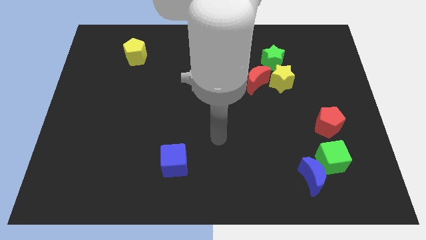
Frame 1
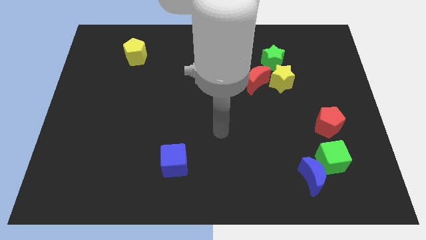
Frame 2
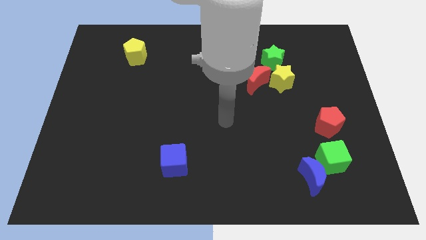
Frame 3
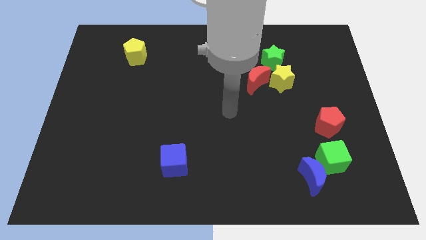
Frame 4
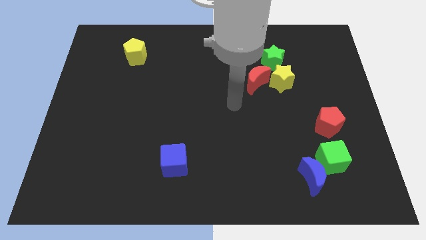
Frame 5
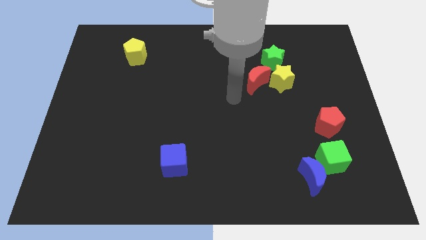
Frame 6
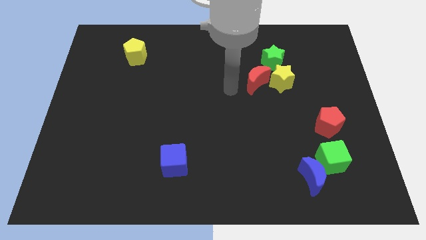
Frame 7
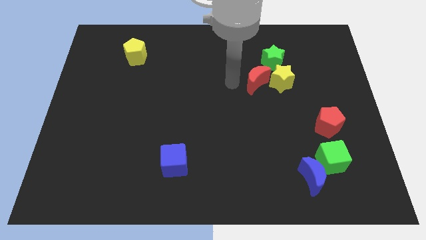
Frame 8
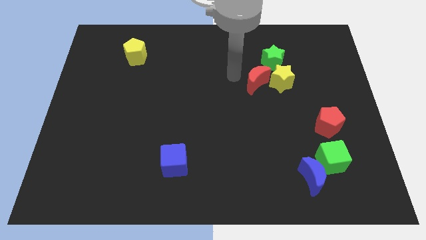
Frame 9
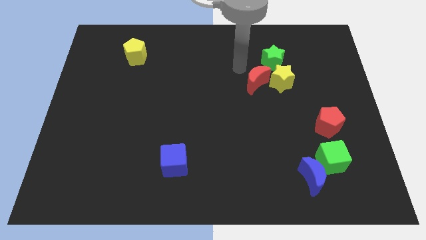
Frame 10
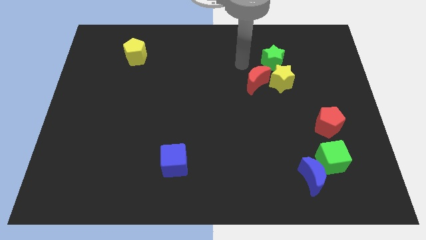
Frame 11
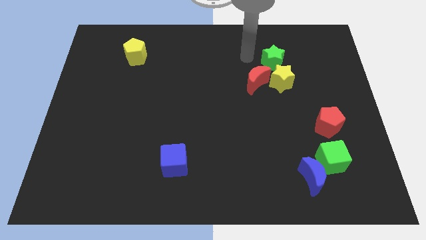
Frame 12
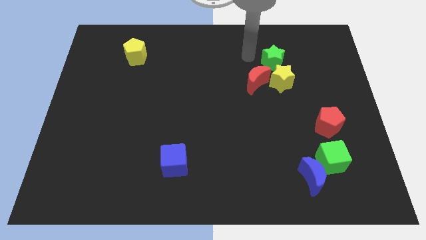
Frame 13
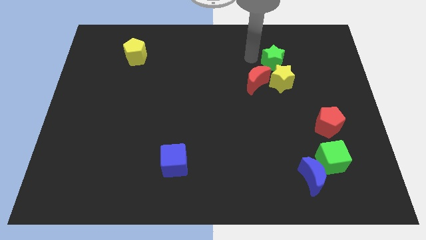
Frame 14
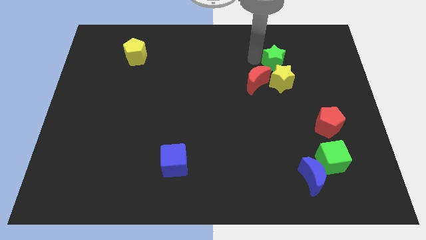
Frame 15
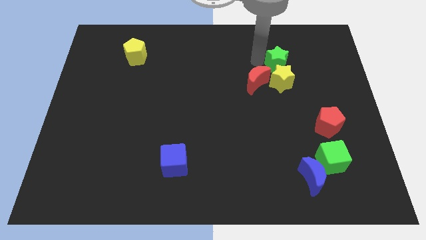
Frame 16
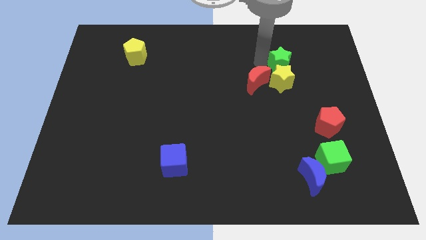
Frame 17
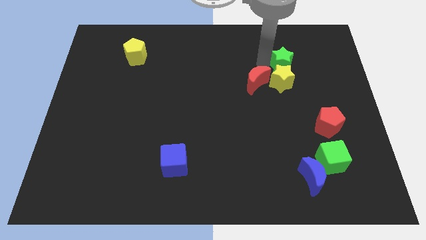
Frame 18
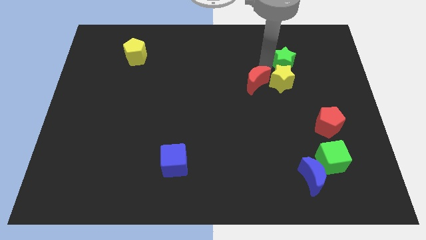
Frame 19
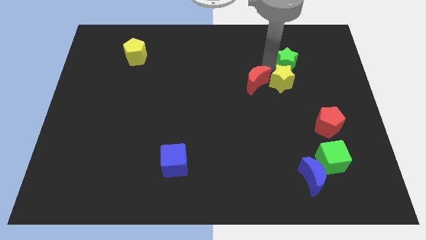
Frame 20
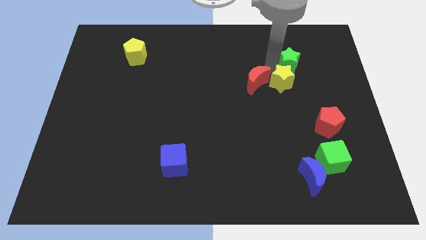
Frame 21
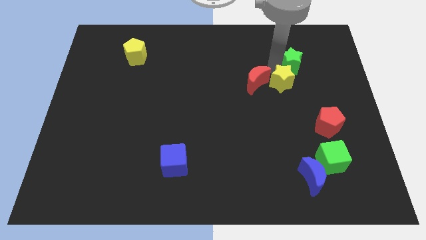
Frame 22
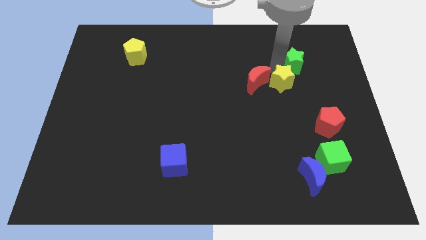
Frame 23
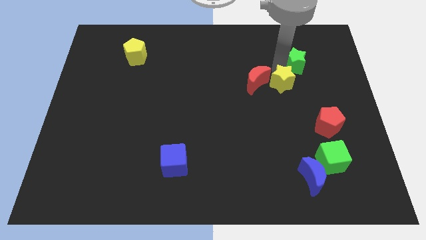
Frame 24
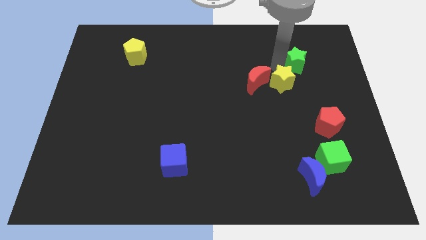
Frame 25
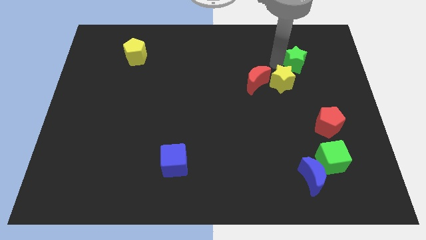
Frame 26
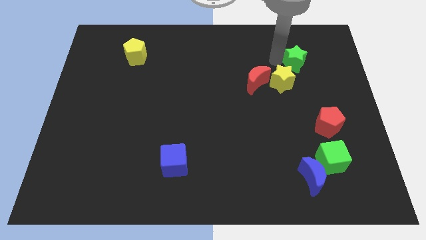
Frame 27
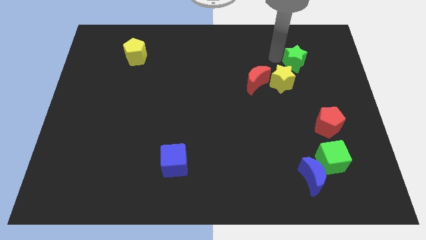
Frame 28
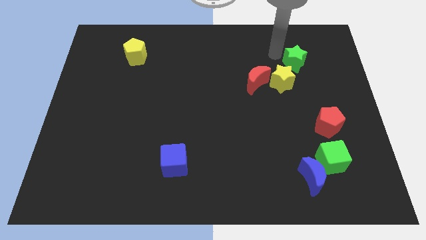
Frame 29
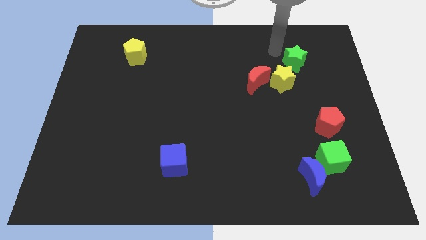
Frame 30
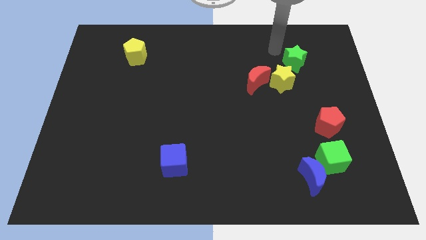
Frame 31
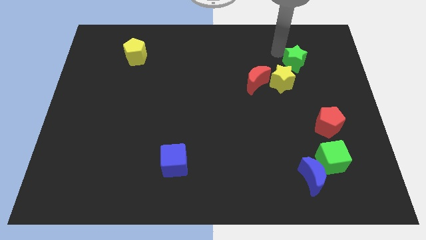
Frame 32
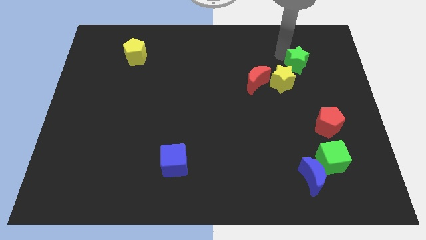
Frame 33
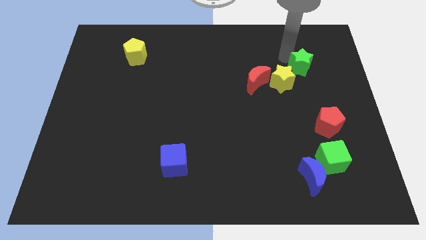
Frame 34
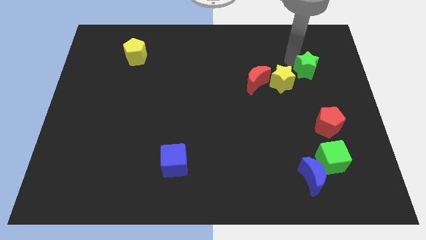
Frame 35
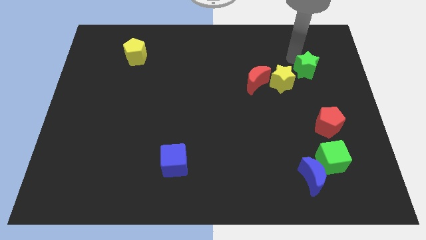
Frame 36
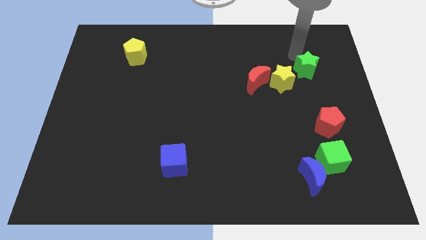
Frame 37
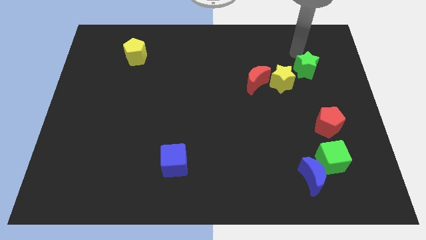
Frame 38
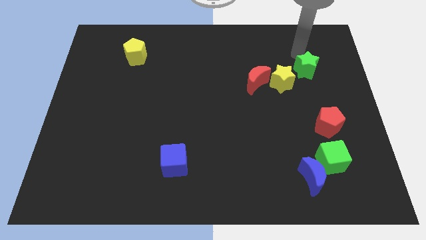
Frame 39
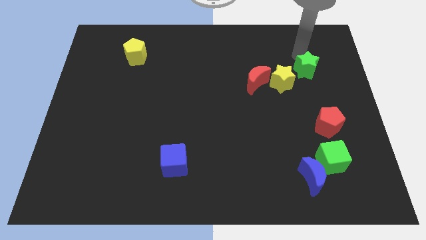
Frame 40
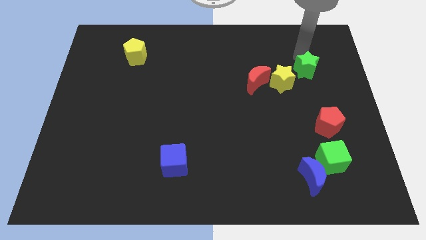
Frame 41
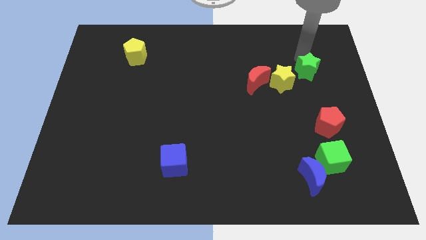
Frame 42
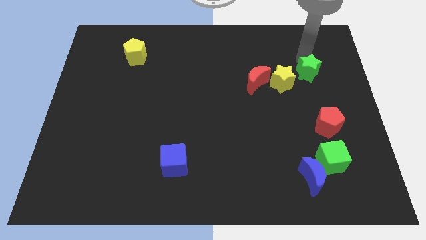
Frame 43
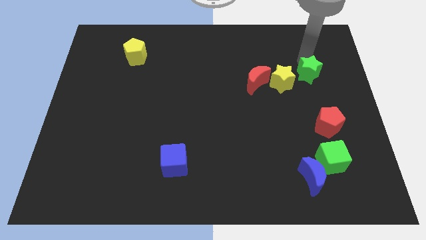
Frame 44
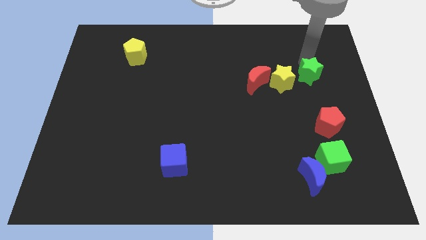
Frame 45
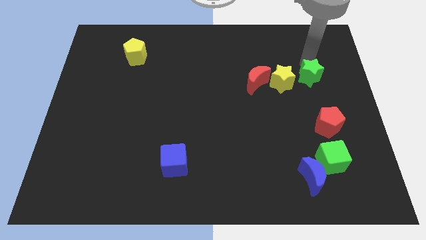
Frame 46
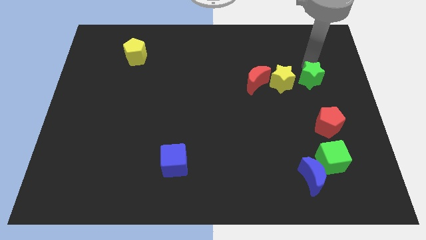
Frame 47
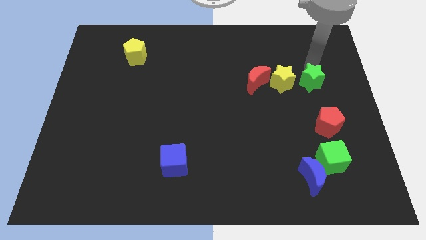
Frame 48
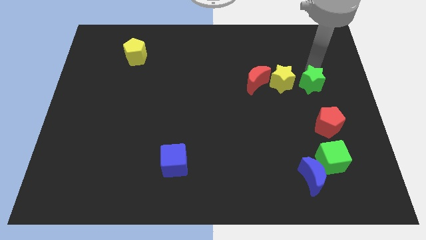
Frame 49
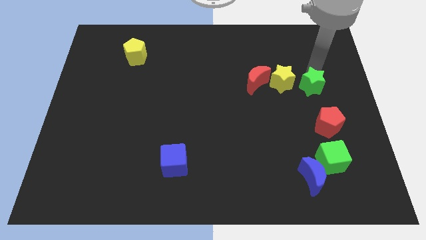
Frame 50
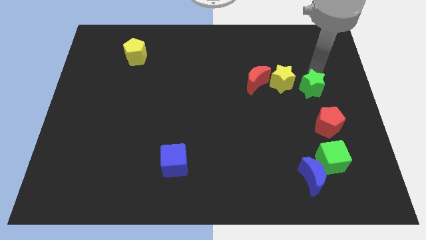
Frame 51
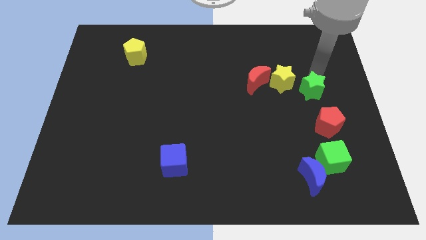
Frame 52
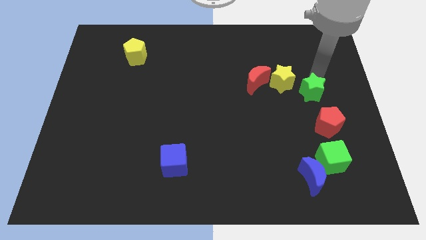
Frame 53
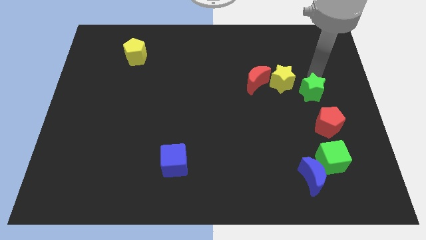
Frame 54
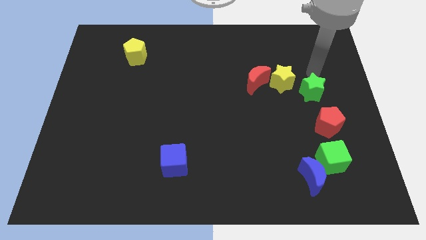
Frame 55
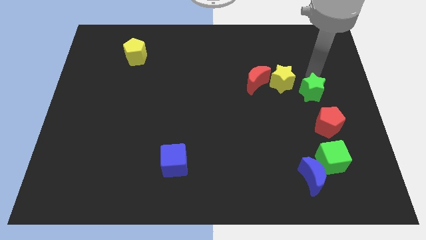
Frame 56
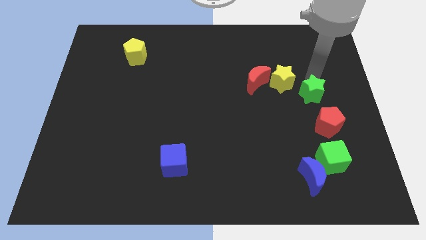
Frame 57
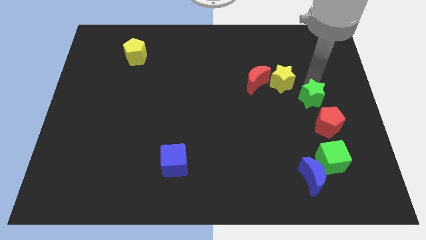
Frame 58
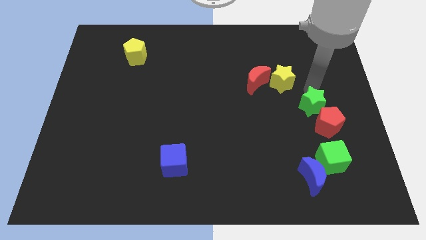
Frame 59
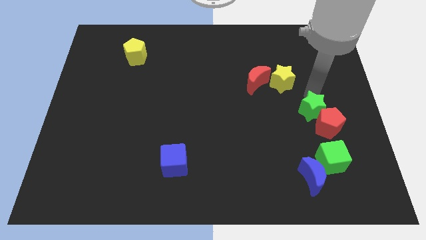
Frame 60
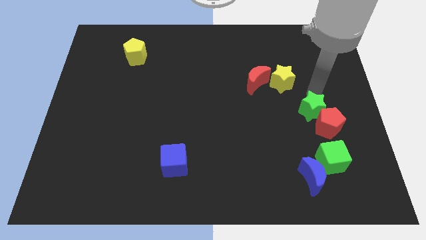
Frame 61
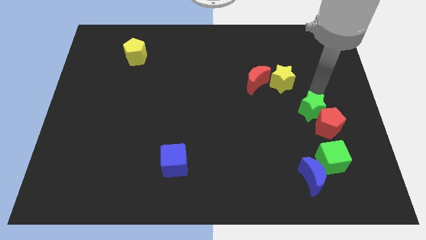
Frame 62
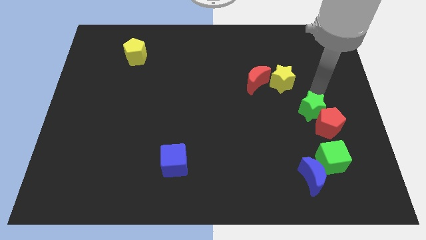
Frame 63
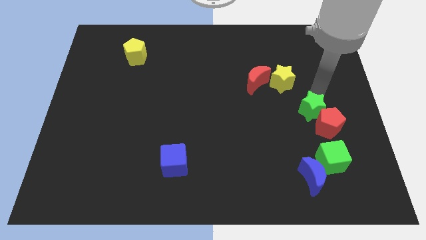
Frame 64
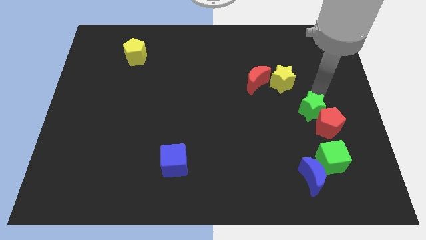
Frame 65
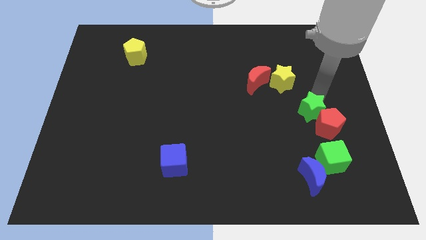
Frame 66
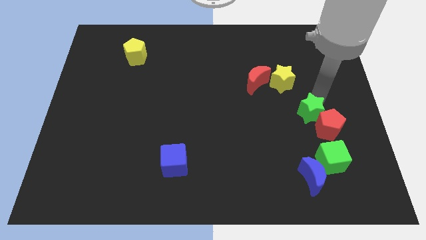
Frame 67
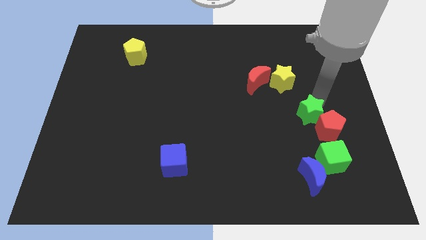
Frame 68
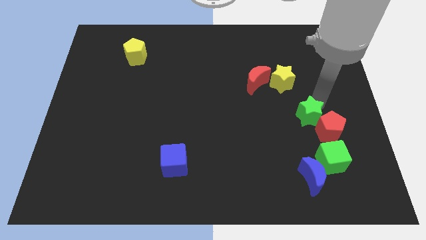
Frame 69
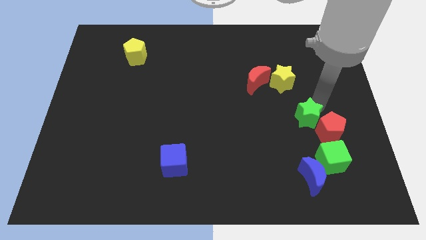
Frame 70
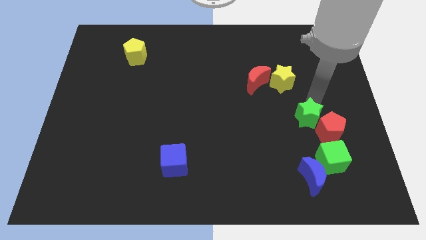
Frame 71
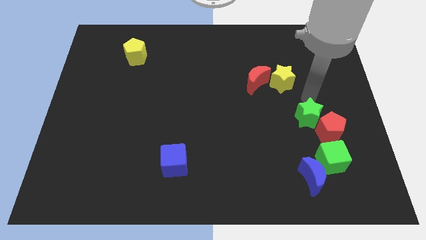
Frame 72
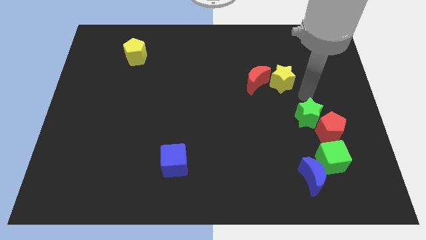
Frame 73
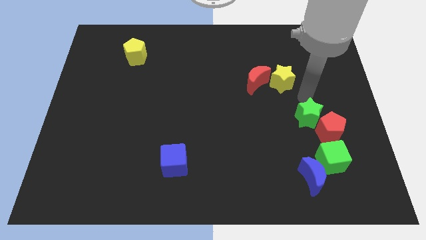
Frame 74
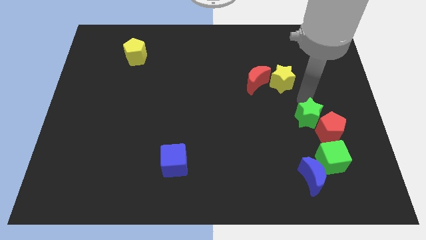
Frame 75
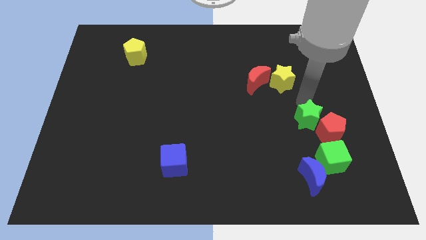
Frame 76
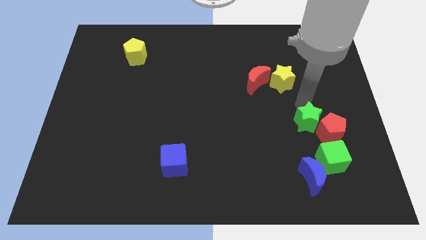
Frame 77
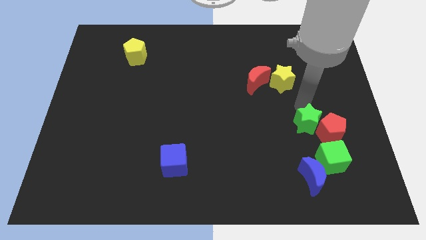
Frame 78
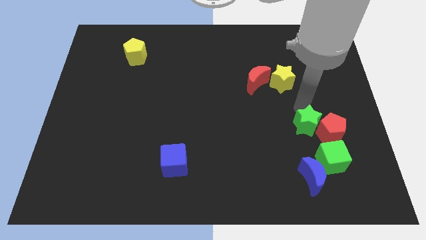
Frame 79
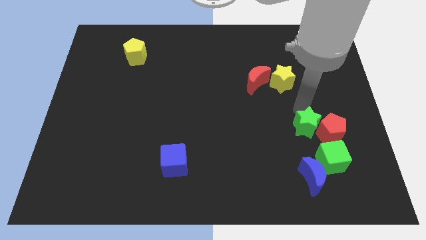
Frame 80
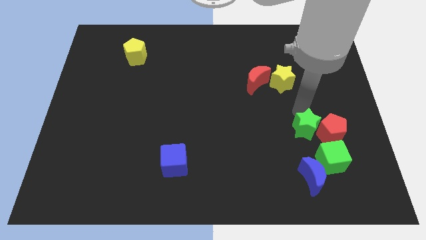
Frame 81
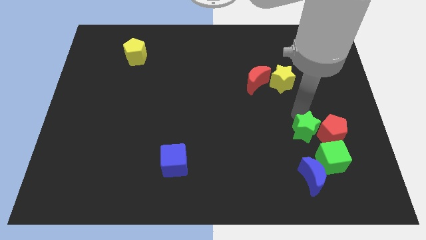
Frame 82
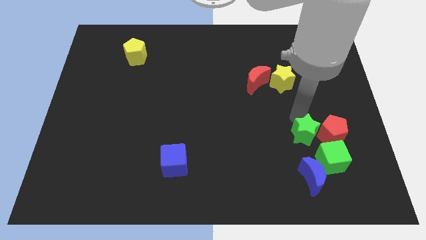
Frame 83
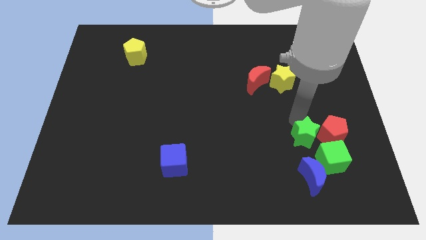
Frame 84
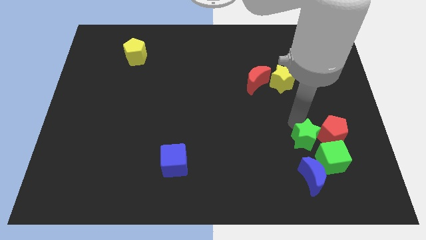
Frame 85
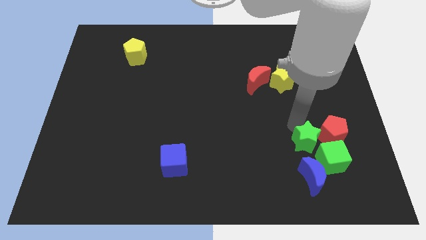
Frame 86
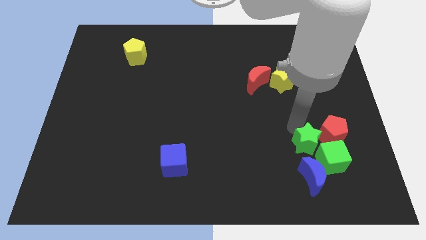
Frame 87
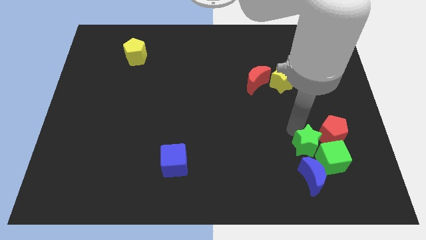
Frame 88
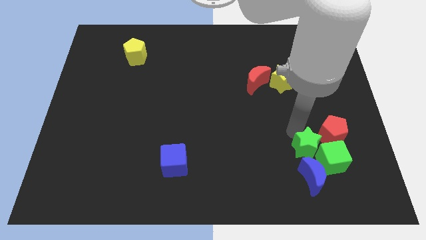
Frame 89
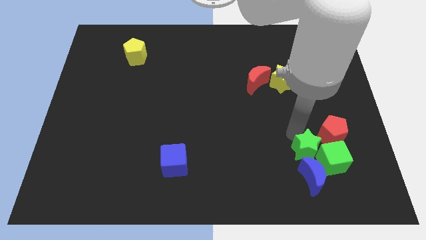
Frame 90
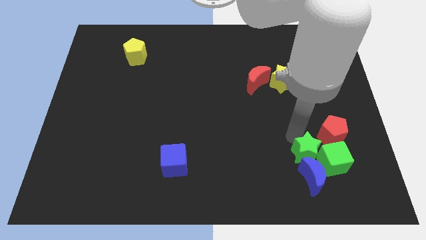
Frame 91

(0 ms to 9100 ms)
put the green star towards the blue moon
